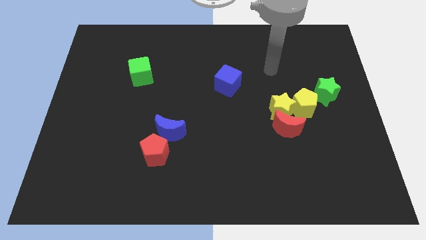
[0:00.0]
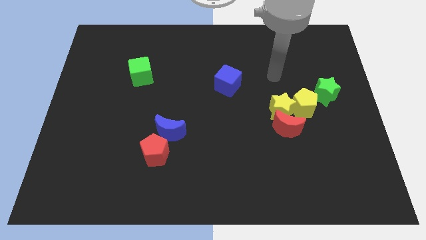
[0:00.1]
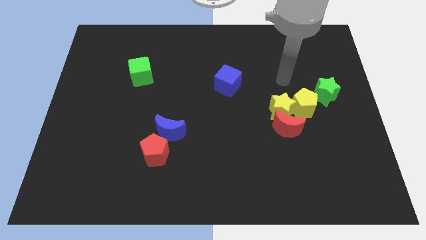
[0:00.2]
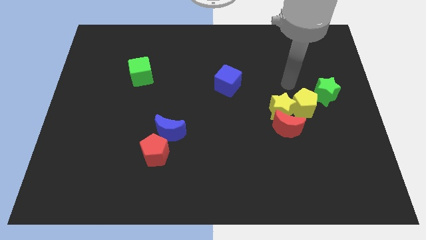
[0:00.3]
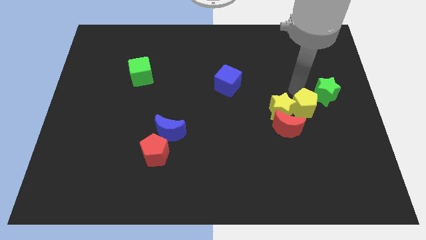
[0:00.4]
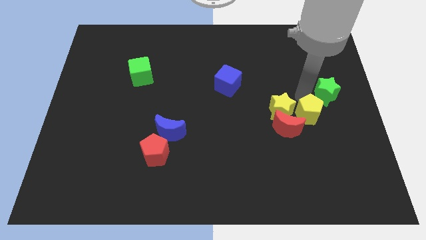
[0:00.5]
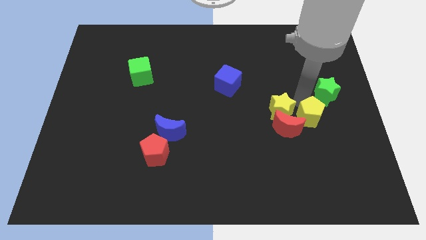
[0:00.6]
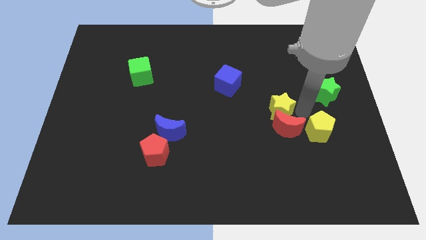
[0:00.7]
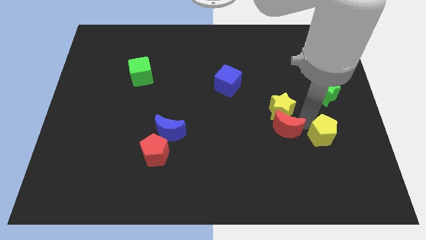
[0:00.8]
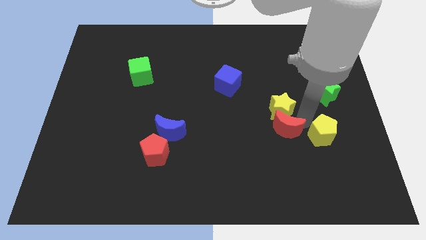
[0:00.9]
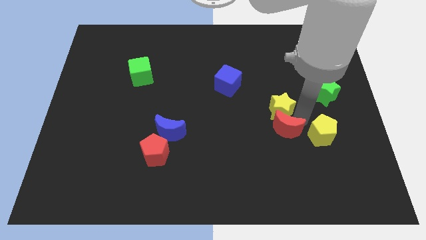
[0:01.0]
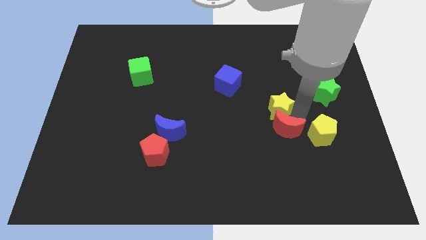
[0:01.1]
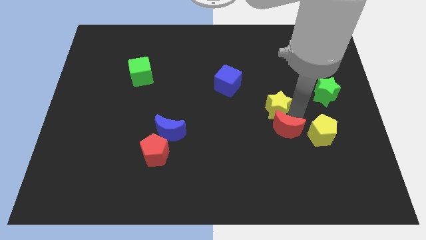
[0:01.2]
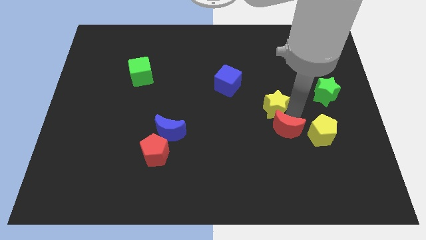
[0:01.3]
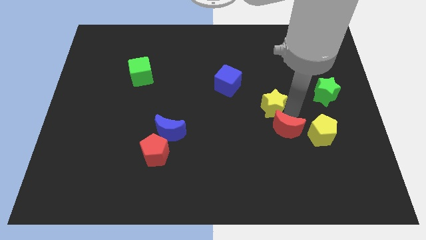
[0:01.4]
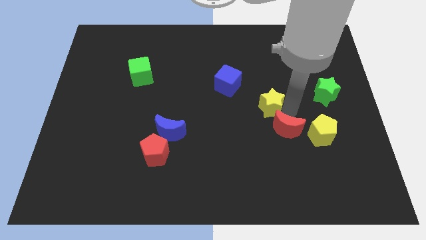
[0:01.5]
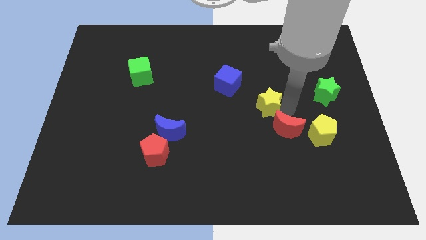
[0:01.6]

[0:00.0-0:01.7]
pull the yellow star apart from the red moon and yellow pentagon

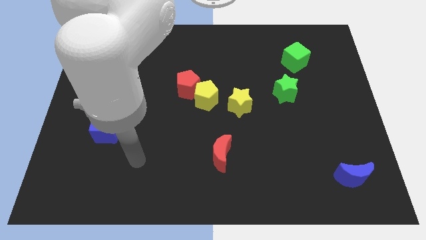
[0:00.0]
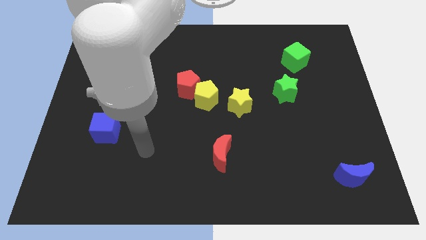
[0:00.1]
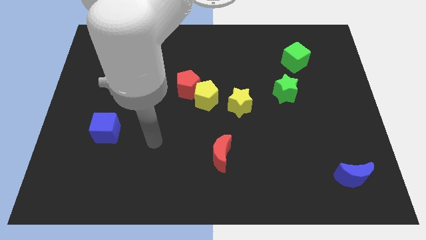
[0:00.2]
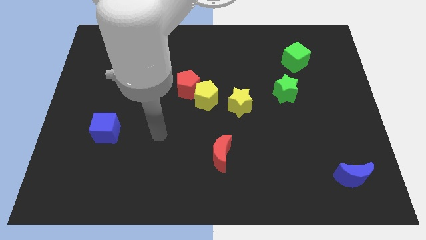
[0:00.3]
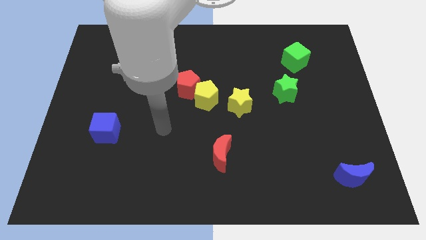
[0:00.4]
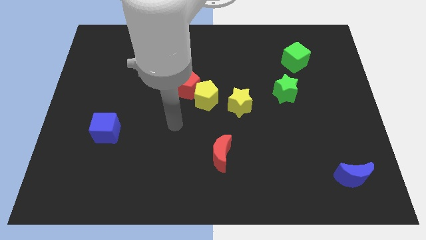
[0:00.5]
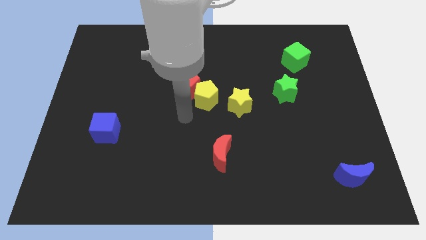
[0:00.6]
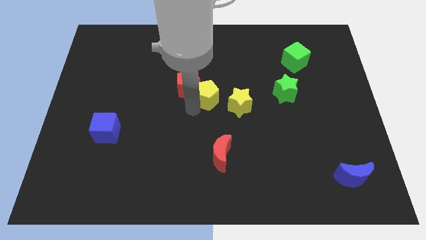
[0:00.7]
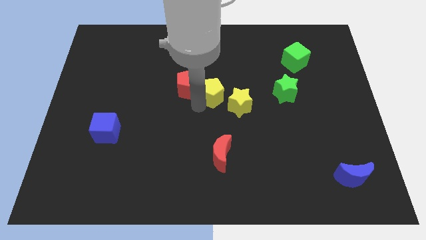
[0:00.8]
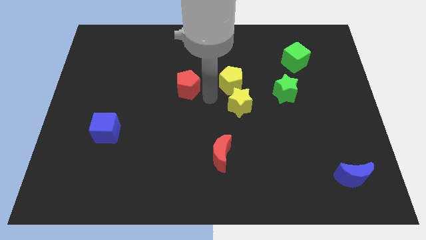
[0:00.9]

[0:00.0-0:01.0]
pull the red pentagon apart from the yellow pentagon

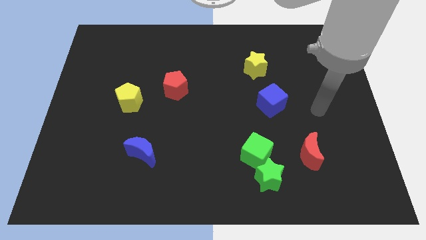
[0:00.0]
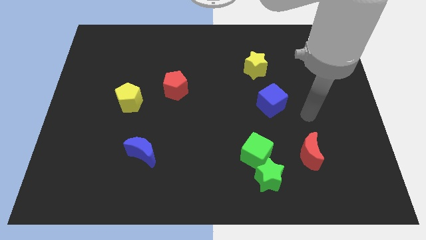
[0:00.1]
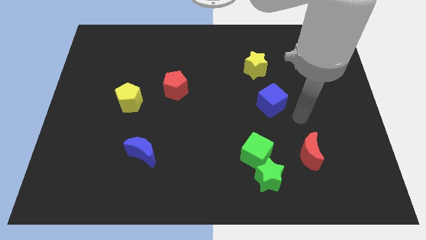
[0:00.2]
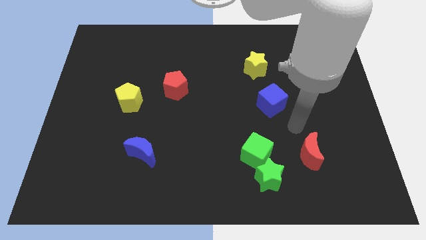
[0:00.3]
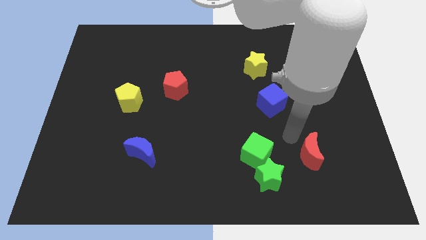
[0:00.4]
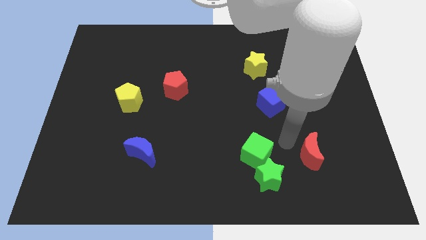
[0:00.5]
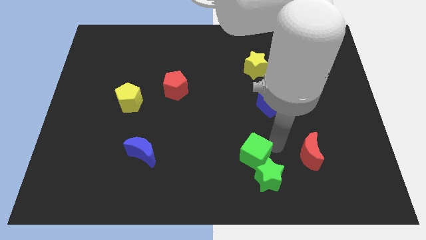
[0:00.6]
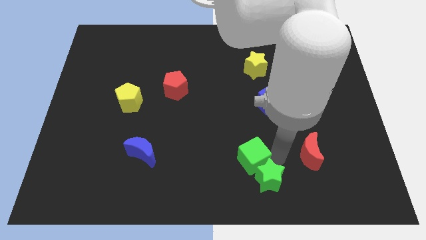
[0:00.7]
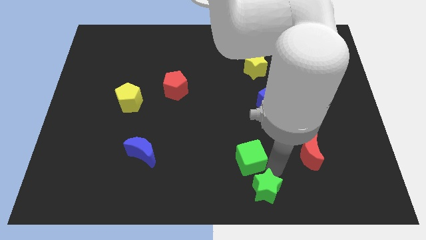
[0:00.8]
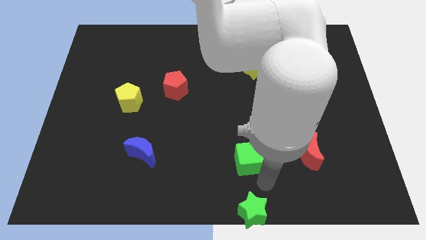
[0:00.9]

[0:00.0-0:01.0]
move the green cube away from the green star

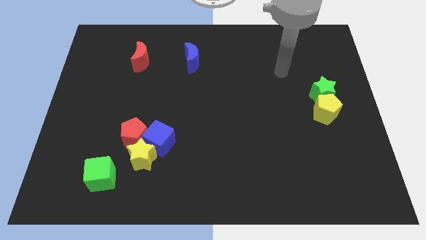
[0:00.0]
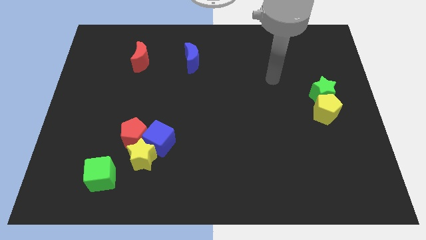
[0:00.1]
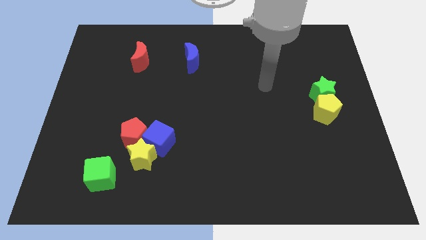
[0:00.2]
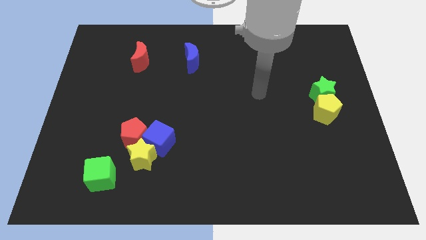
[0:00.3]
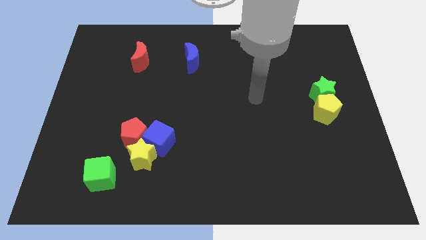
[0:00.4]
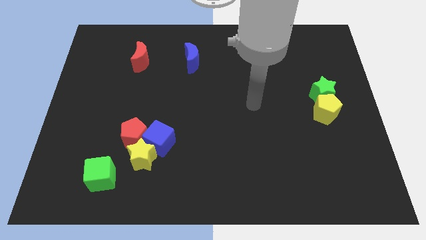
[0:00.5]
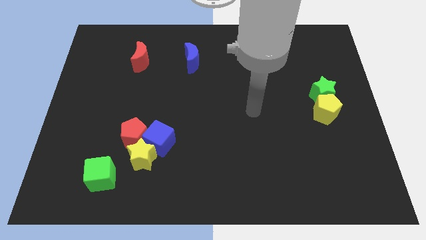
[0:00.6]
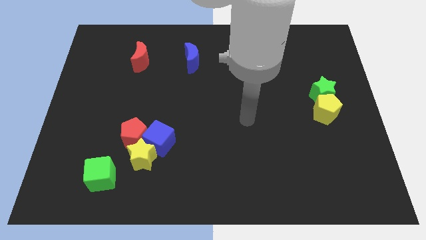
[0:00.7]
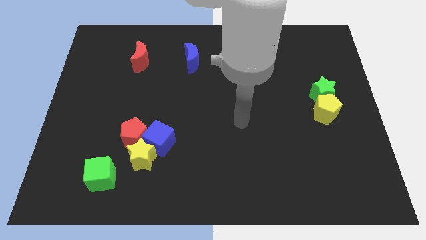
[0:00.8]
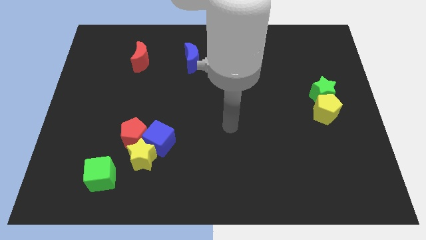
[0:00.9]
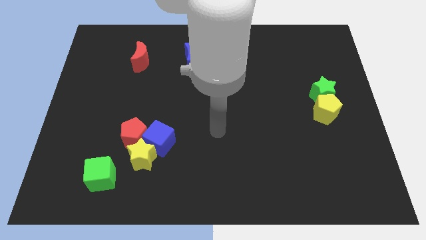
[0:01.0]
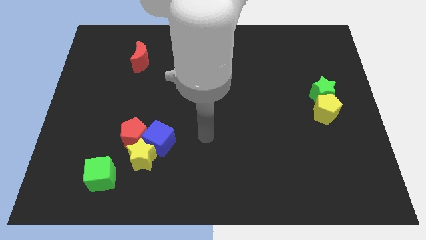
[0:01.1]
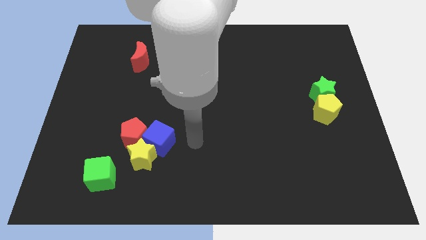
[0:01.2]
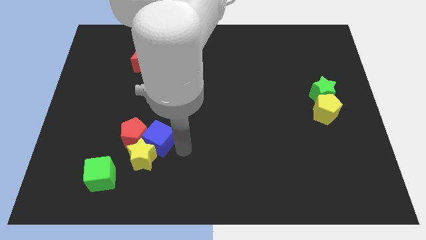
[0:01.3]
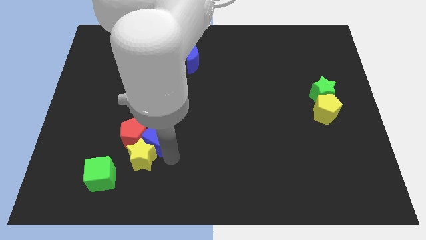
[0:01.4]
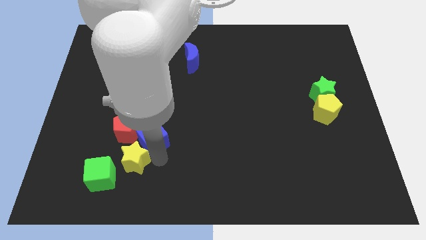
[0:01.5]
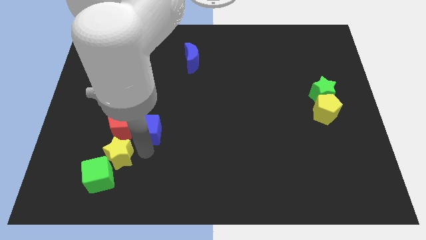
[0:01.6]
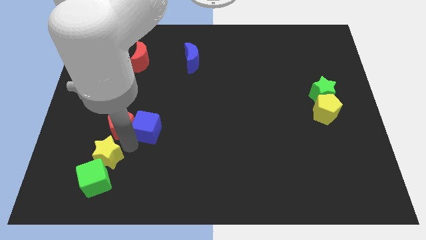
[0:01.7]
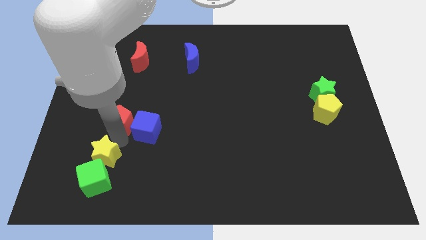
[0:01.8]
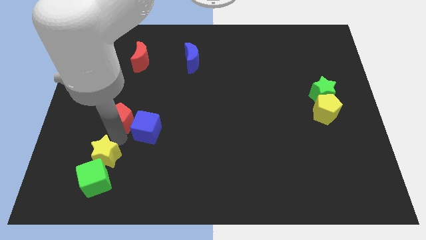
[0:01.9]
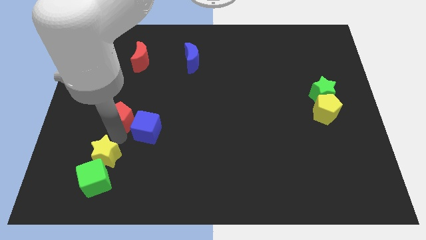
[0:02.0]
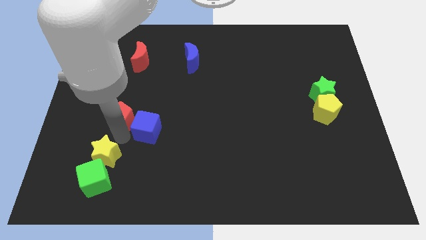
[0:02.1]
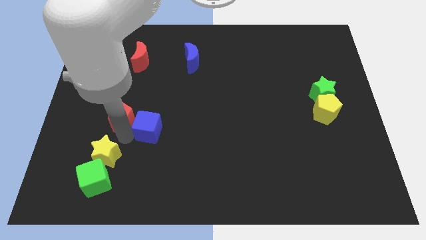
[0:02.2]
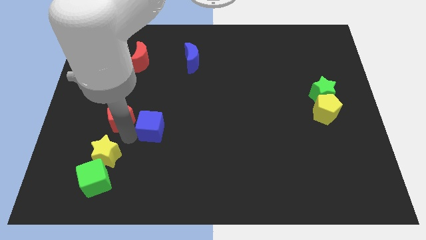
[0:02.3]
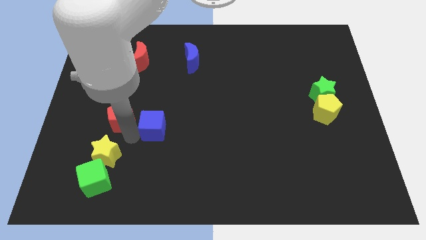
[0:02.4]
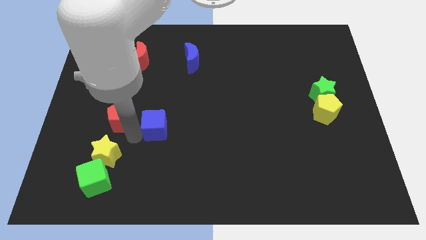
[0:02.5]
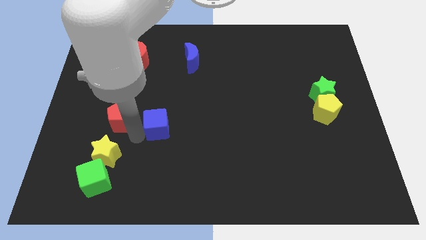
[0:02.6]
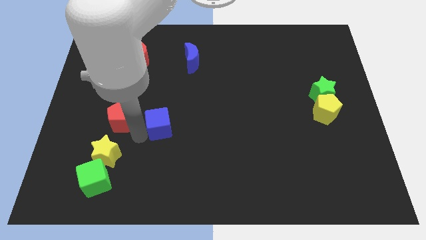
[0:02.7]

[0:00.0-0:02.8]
move the blue cube away from the yellow star and red pentagon

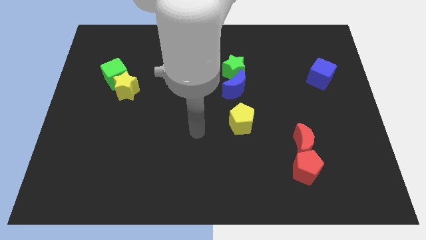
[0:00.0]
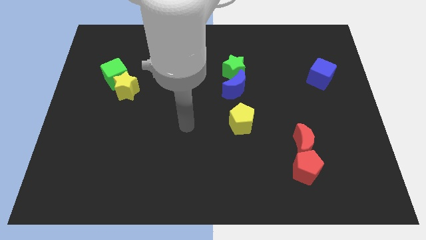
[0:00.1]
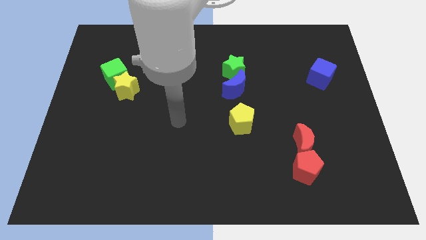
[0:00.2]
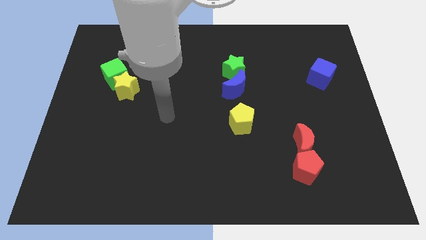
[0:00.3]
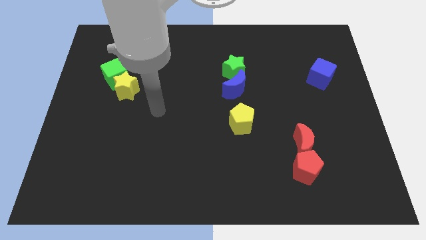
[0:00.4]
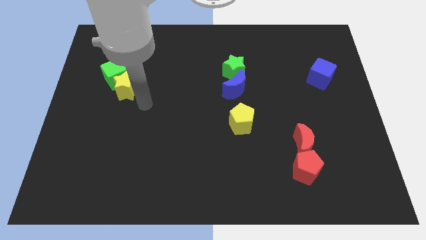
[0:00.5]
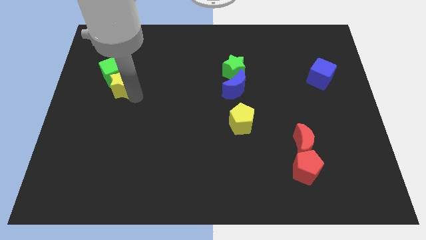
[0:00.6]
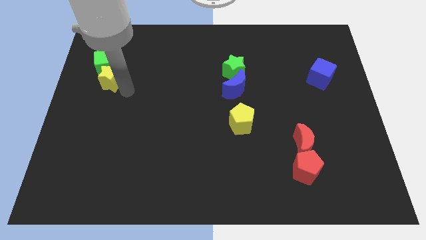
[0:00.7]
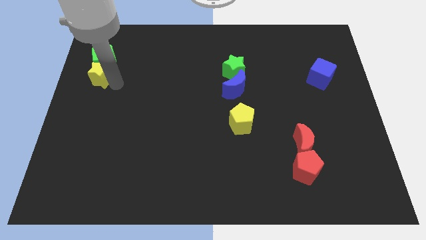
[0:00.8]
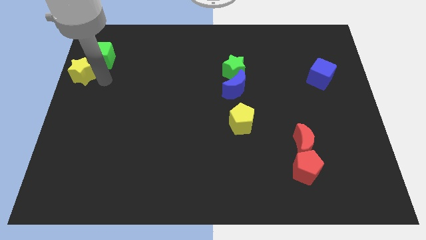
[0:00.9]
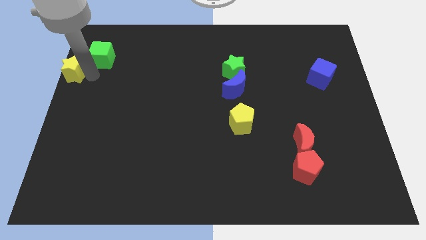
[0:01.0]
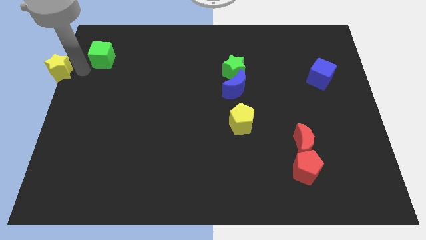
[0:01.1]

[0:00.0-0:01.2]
pull the green cube apart from the yellow star

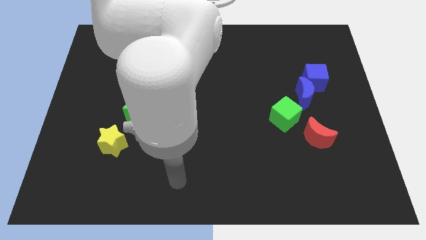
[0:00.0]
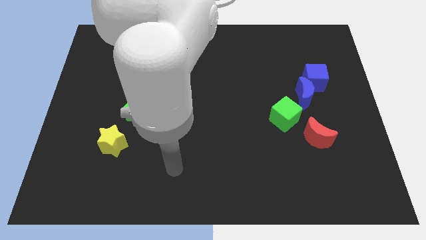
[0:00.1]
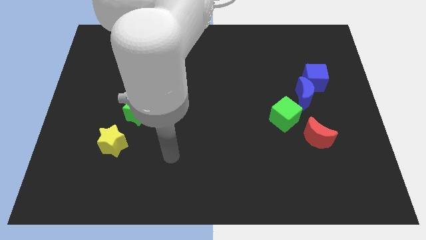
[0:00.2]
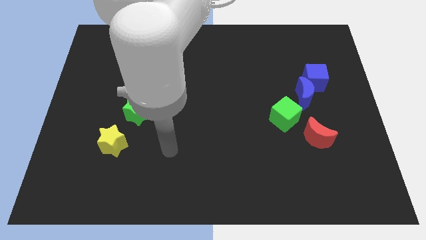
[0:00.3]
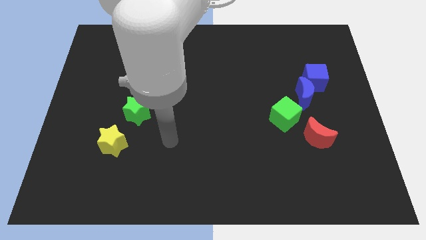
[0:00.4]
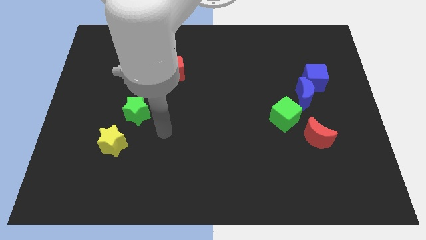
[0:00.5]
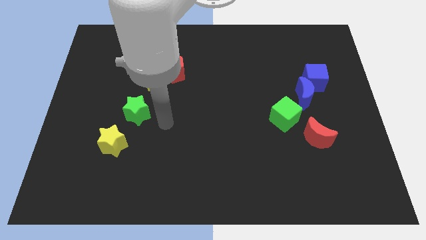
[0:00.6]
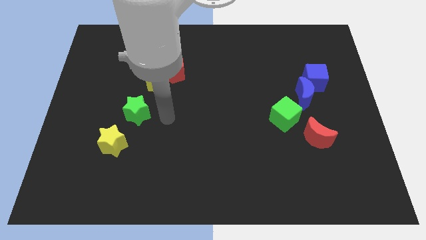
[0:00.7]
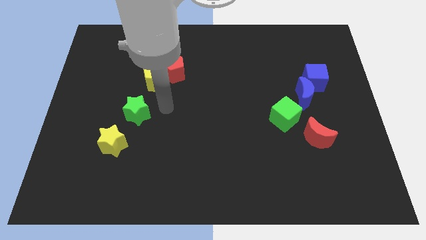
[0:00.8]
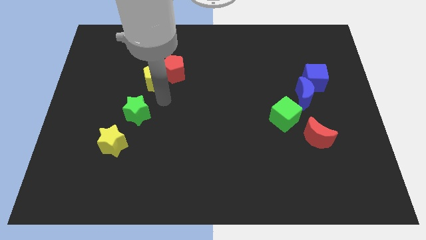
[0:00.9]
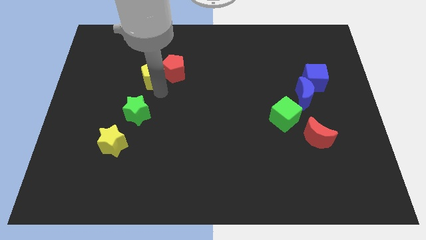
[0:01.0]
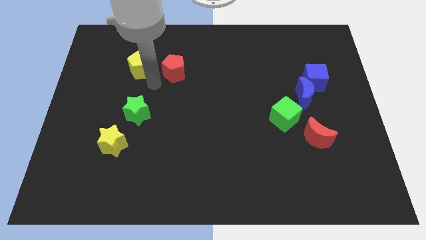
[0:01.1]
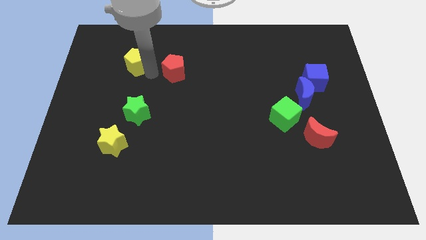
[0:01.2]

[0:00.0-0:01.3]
separate the red pentagon from the yellow pentagon
